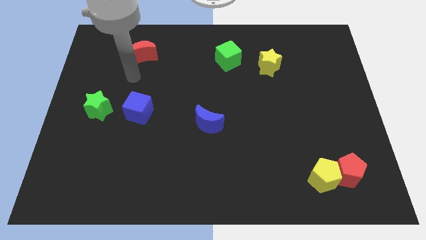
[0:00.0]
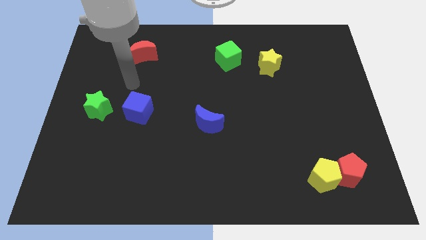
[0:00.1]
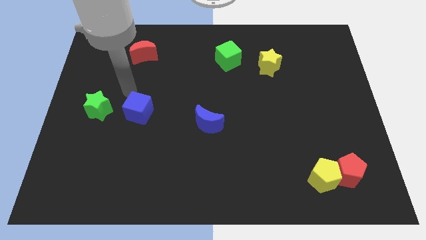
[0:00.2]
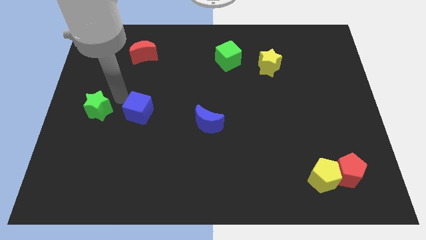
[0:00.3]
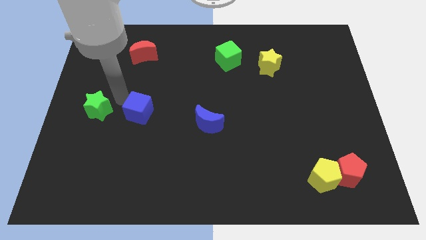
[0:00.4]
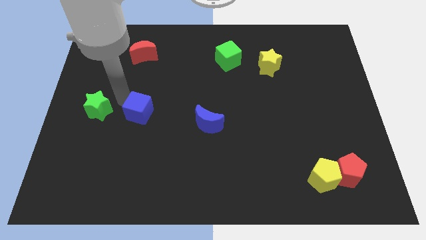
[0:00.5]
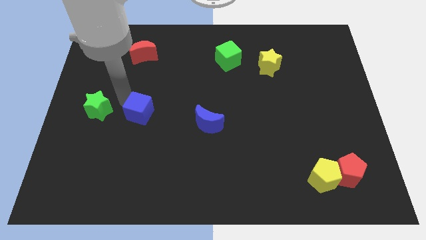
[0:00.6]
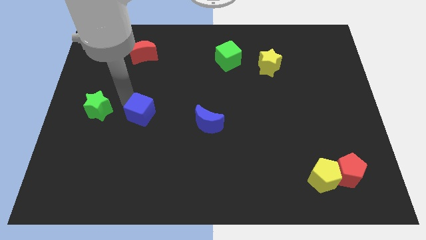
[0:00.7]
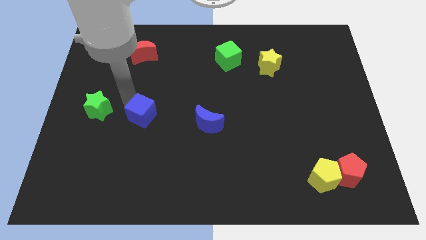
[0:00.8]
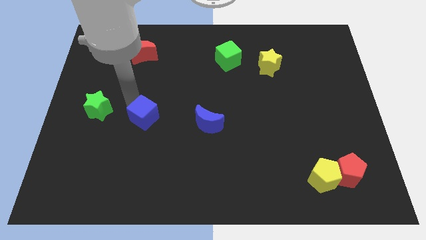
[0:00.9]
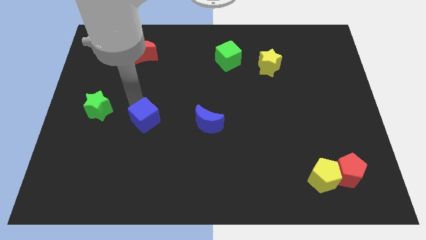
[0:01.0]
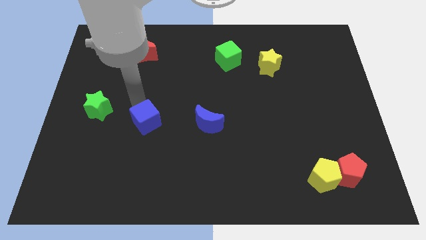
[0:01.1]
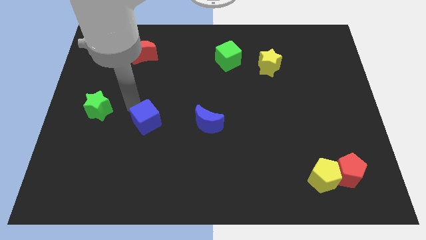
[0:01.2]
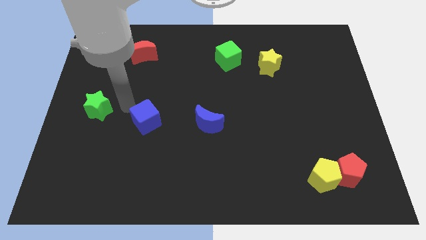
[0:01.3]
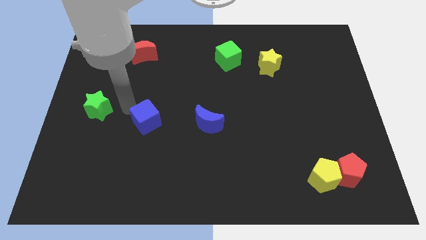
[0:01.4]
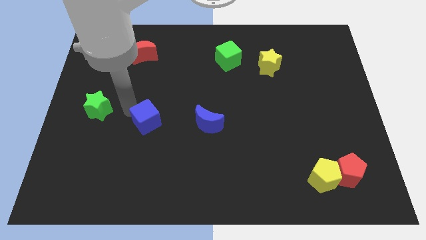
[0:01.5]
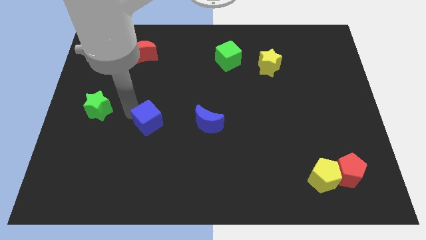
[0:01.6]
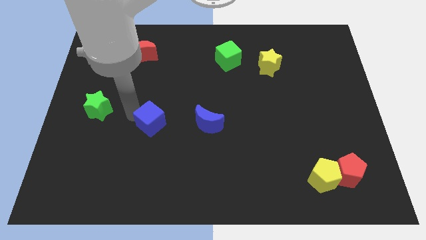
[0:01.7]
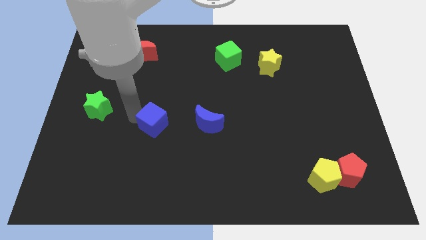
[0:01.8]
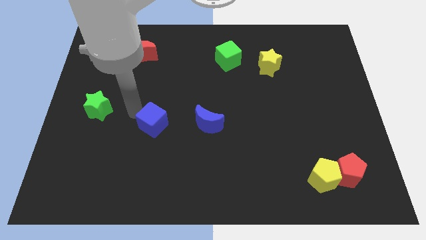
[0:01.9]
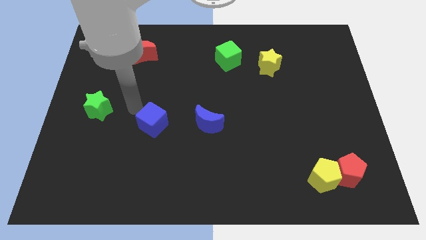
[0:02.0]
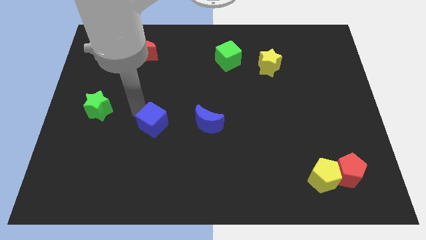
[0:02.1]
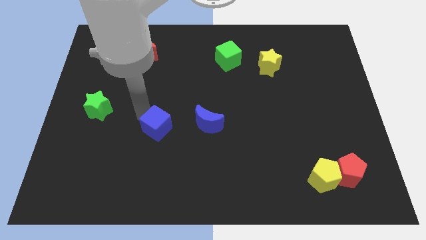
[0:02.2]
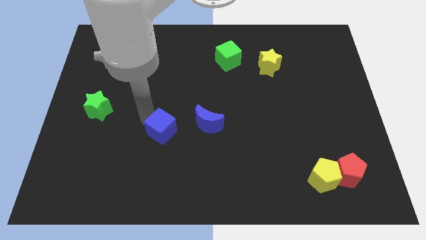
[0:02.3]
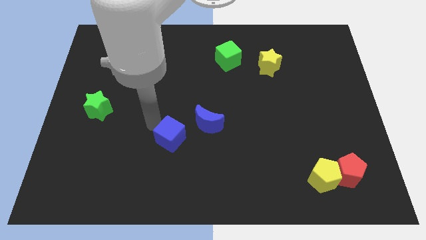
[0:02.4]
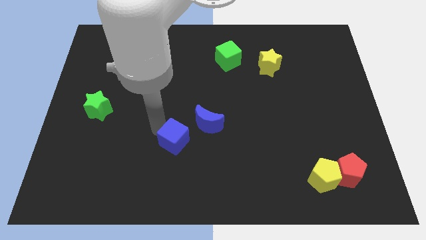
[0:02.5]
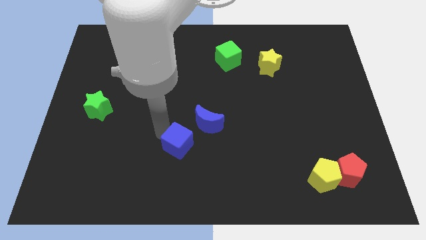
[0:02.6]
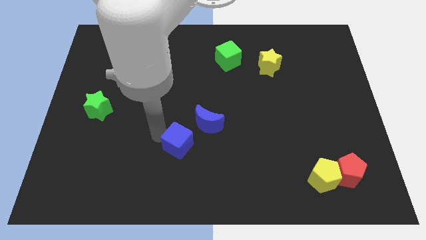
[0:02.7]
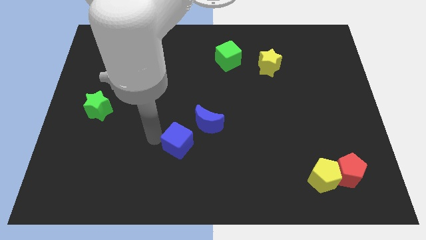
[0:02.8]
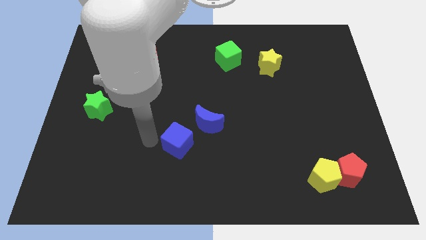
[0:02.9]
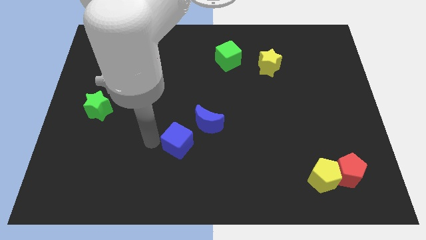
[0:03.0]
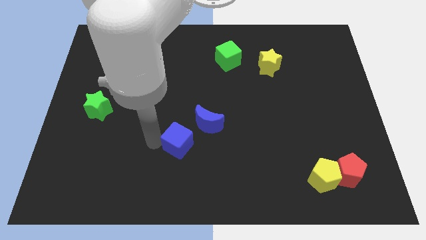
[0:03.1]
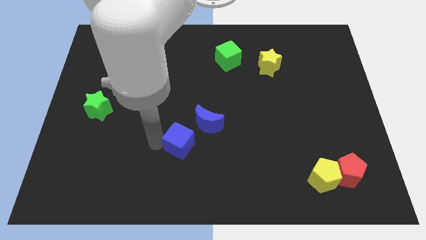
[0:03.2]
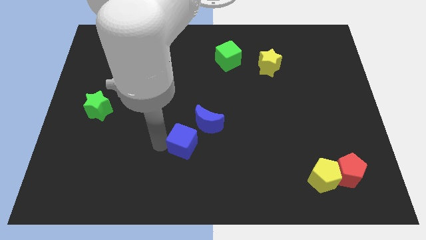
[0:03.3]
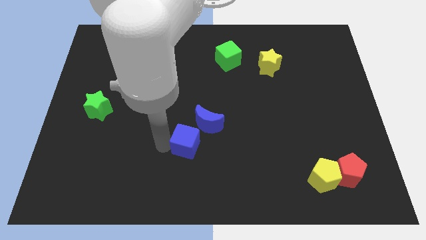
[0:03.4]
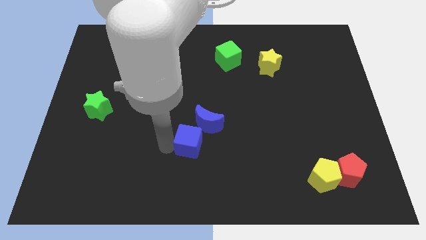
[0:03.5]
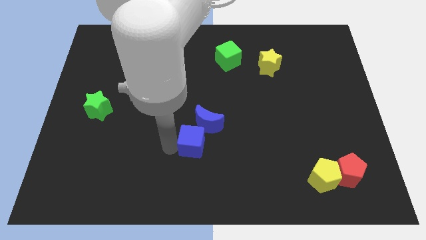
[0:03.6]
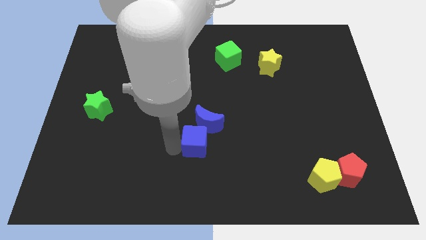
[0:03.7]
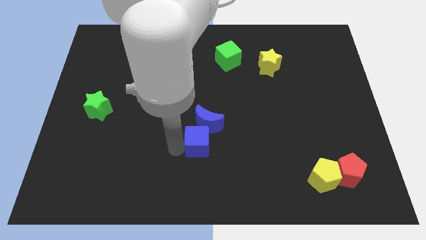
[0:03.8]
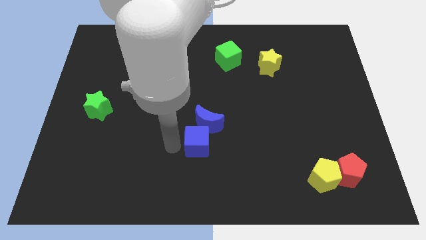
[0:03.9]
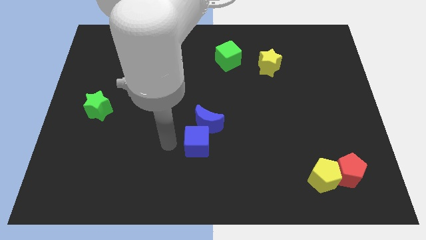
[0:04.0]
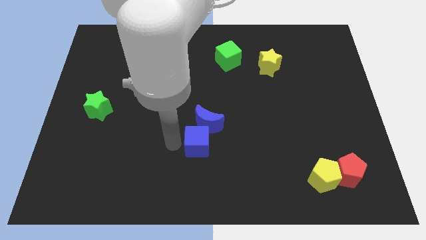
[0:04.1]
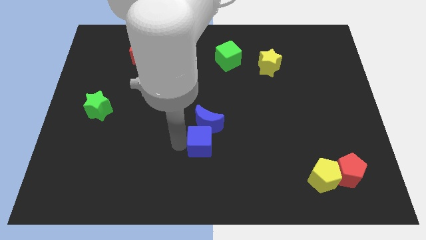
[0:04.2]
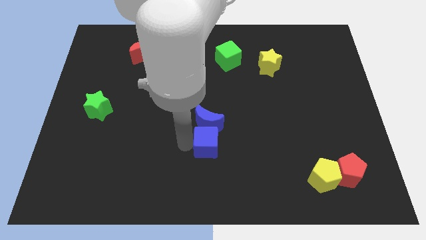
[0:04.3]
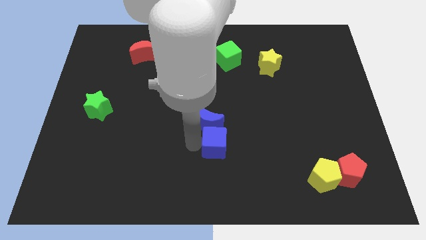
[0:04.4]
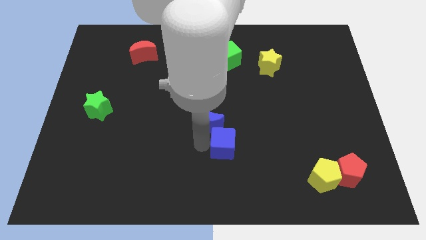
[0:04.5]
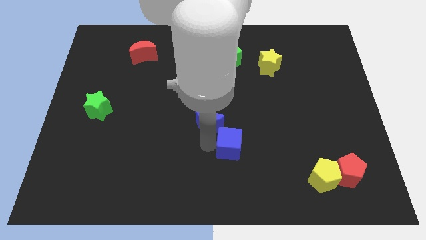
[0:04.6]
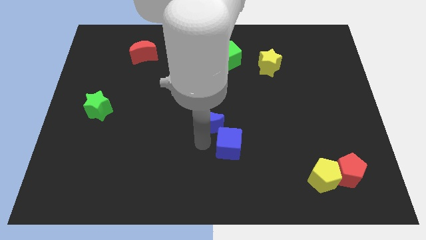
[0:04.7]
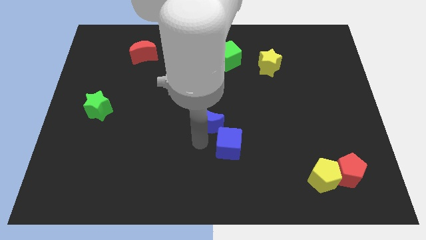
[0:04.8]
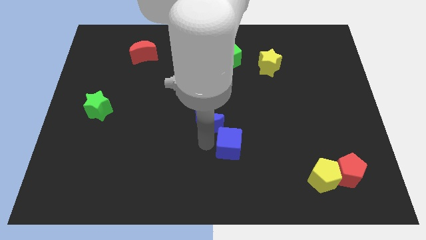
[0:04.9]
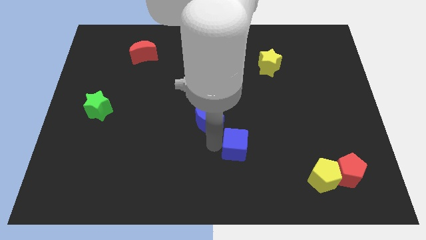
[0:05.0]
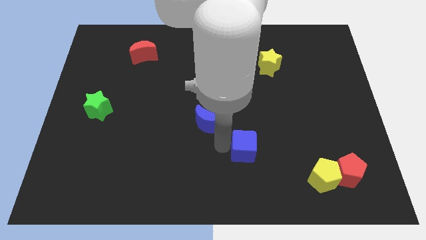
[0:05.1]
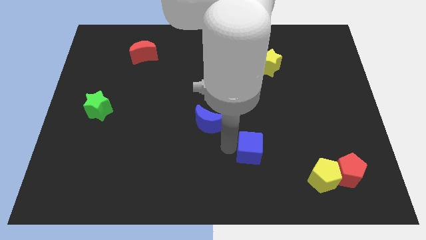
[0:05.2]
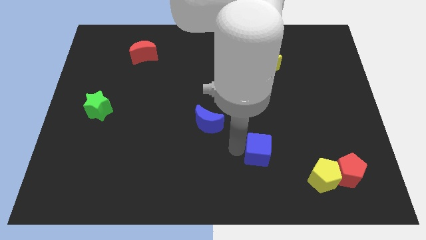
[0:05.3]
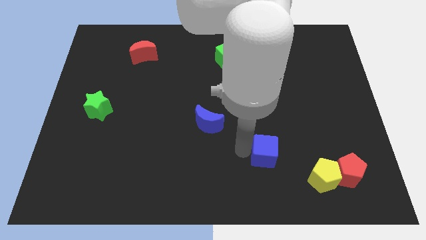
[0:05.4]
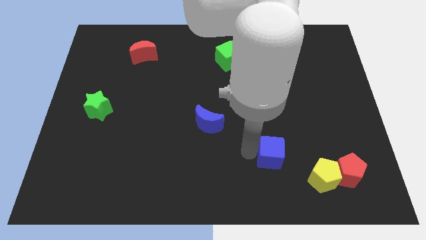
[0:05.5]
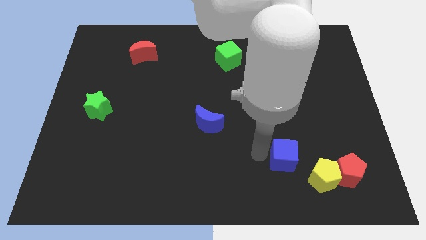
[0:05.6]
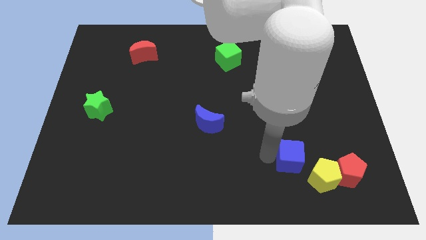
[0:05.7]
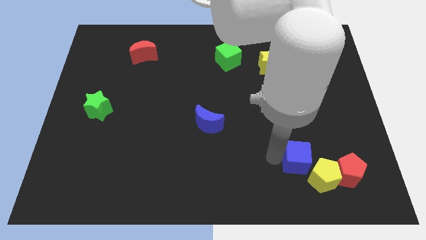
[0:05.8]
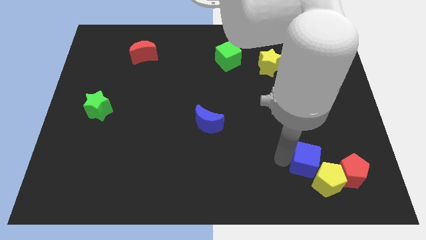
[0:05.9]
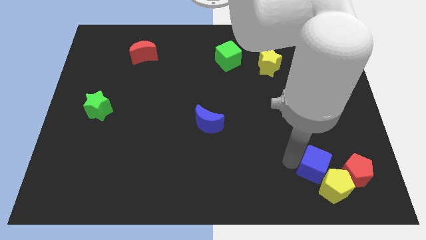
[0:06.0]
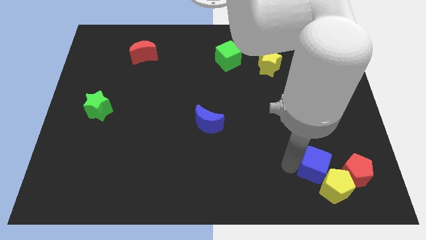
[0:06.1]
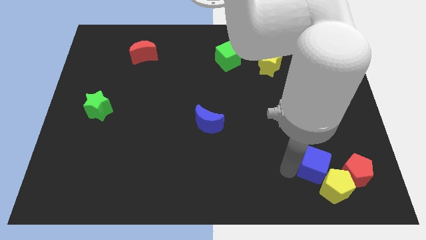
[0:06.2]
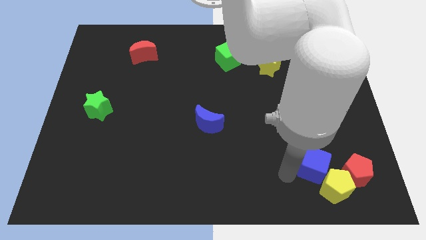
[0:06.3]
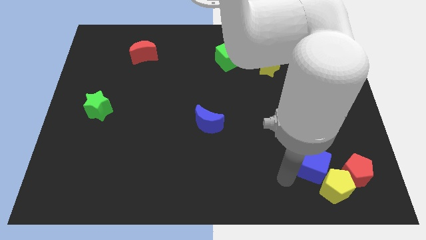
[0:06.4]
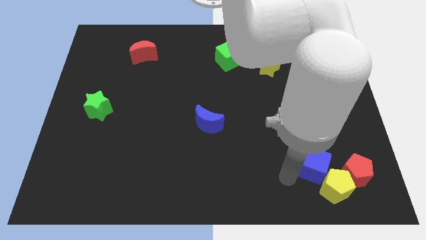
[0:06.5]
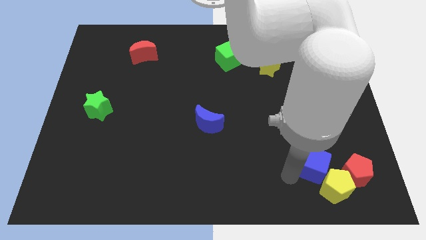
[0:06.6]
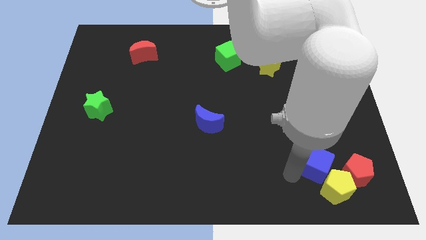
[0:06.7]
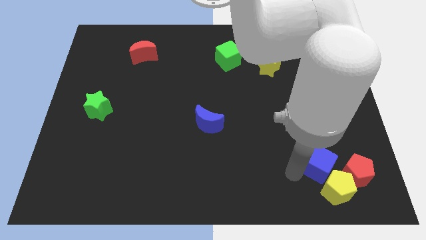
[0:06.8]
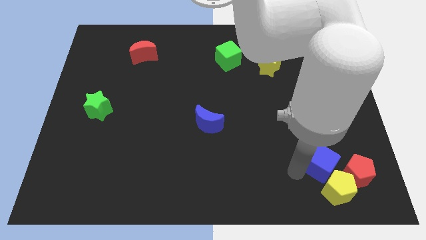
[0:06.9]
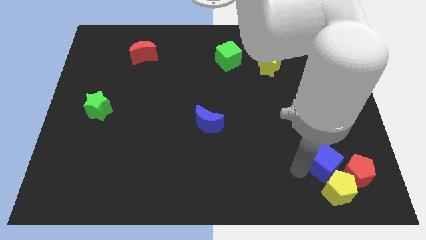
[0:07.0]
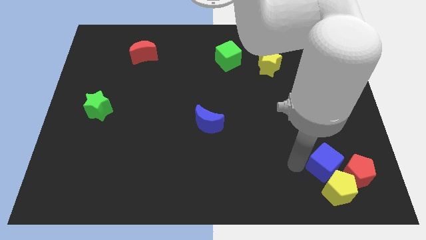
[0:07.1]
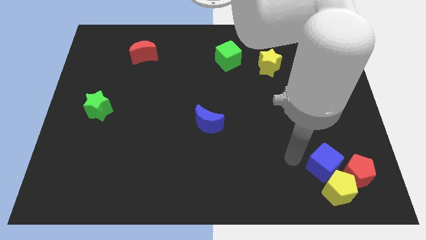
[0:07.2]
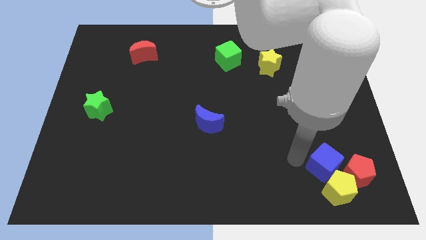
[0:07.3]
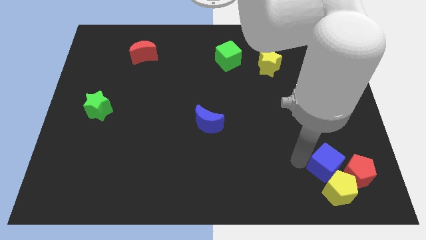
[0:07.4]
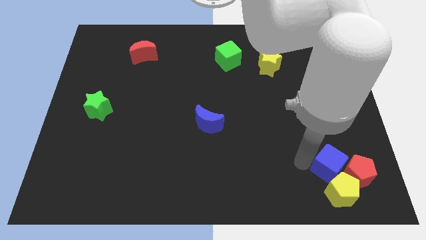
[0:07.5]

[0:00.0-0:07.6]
push the blue cube towards the red pentagon
